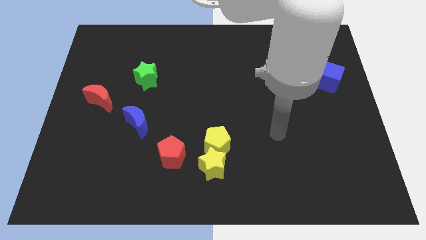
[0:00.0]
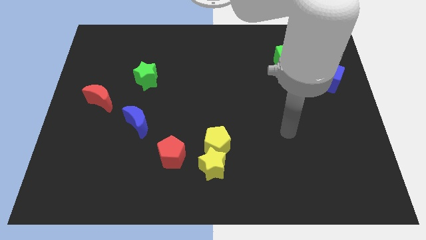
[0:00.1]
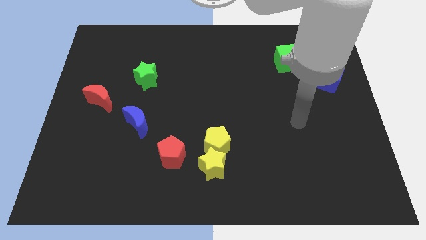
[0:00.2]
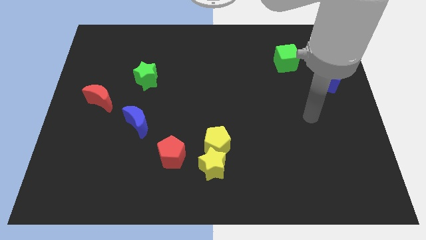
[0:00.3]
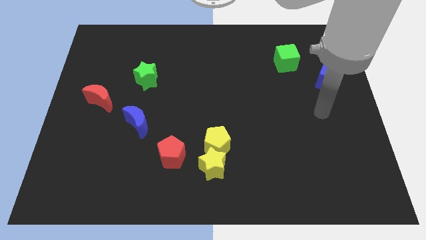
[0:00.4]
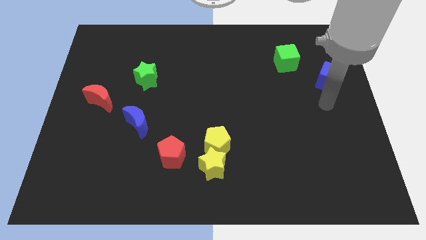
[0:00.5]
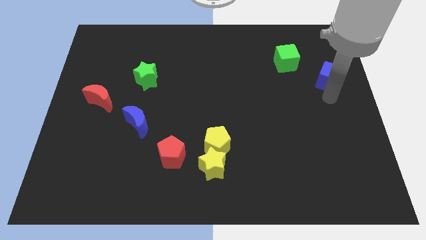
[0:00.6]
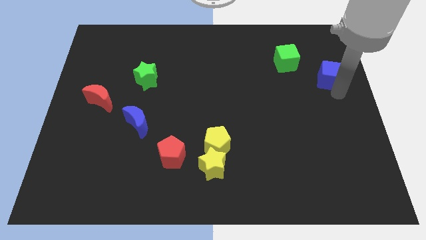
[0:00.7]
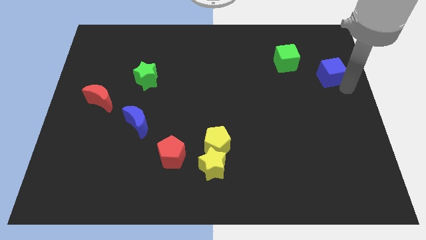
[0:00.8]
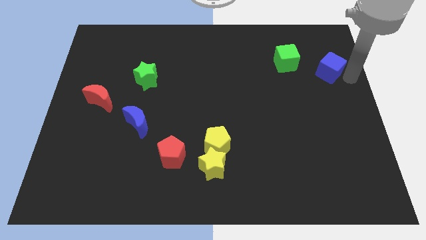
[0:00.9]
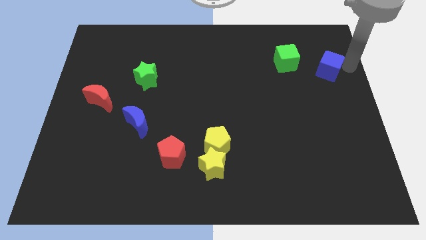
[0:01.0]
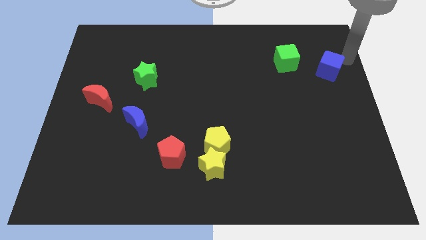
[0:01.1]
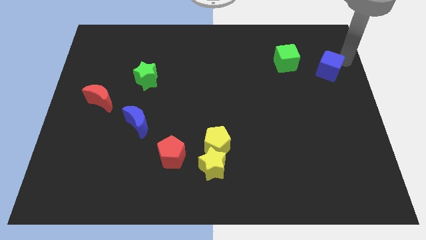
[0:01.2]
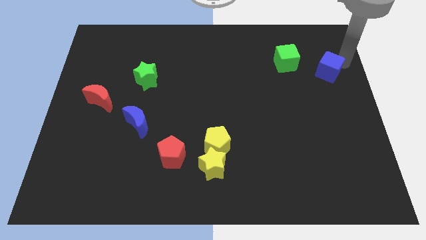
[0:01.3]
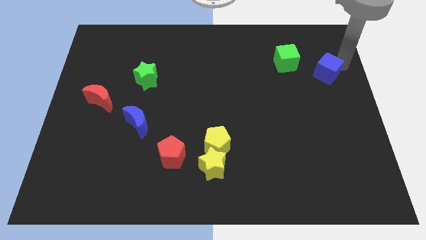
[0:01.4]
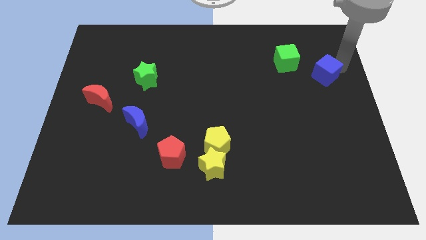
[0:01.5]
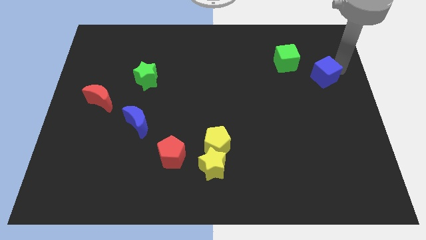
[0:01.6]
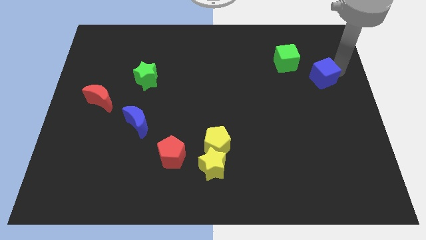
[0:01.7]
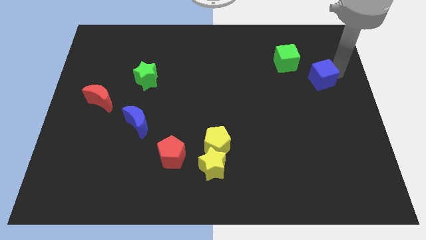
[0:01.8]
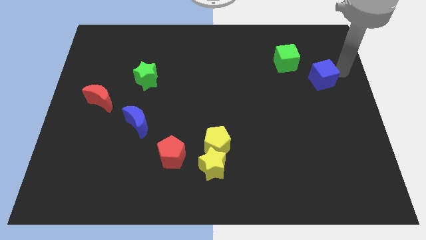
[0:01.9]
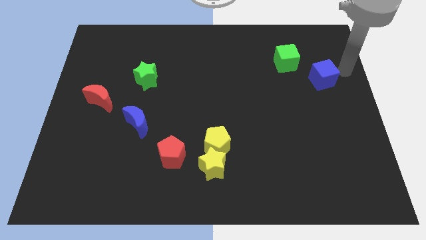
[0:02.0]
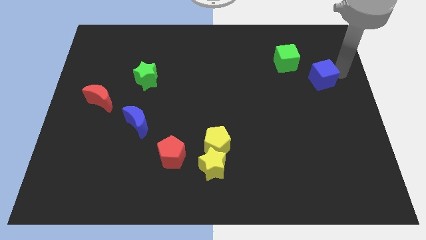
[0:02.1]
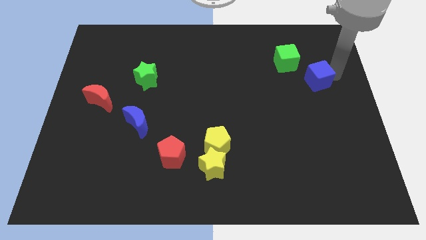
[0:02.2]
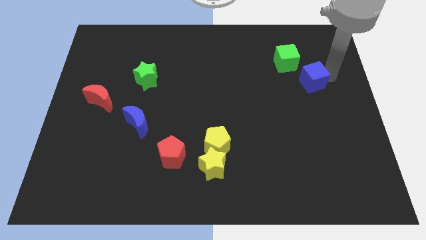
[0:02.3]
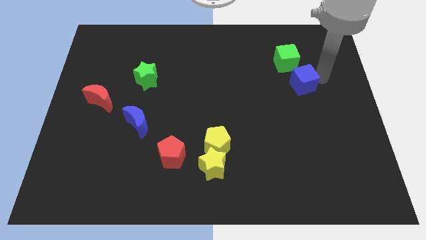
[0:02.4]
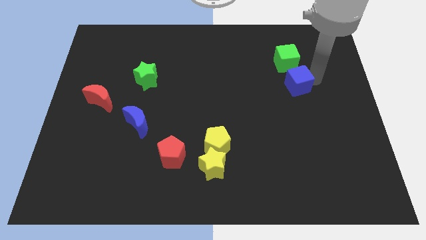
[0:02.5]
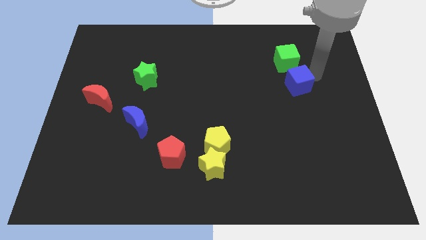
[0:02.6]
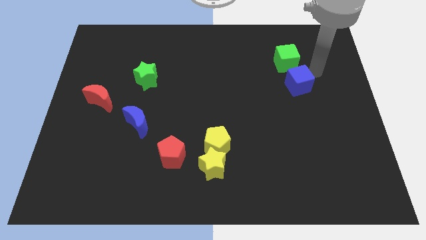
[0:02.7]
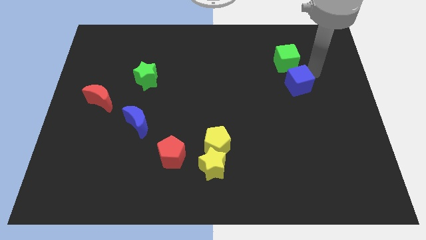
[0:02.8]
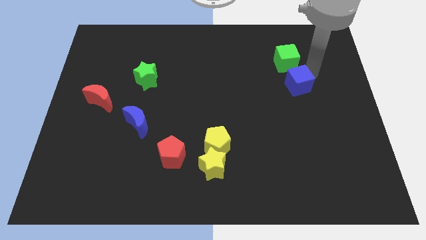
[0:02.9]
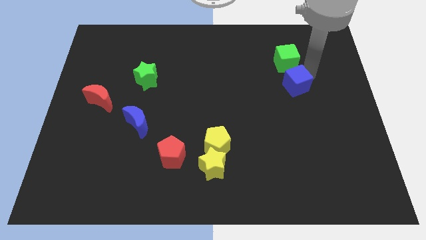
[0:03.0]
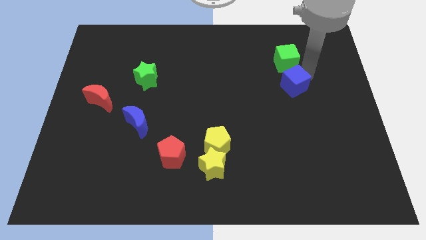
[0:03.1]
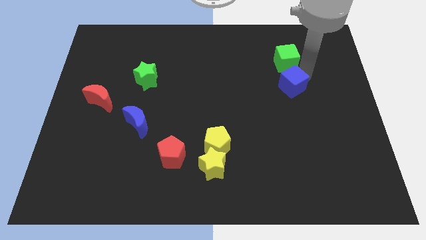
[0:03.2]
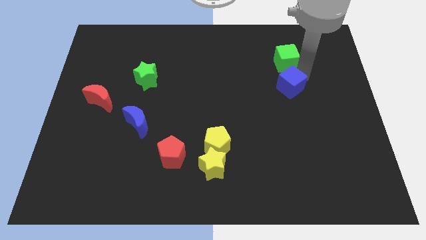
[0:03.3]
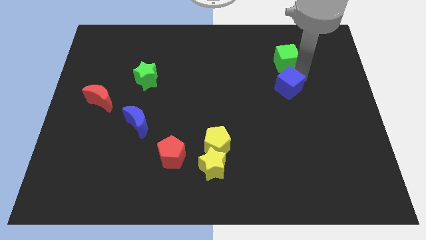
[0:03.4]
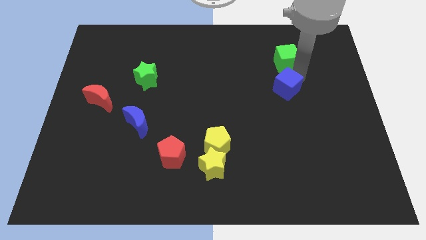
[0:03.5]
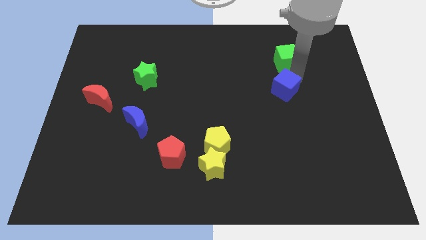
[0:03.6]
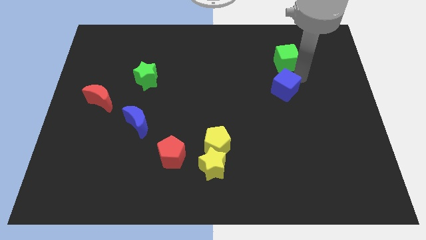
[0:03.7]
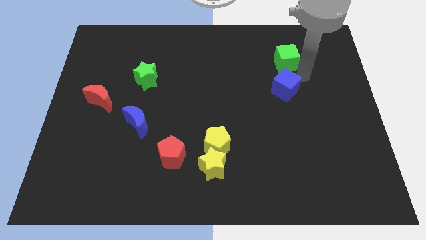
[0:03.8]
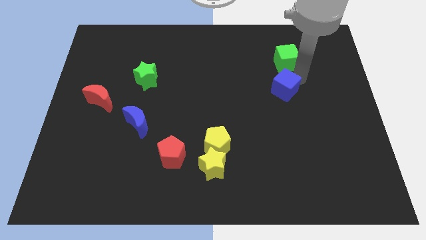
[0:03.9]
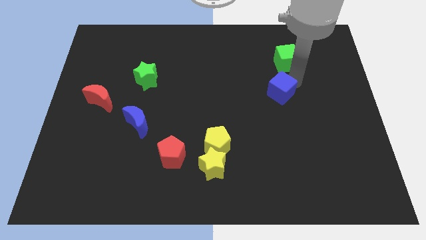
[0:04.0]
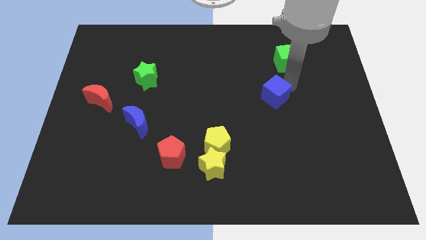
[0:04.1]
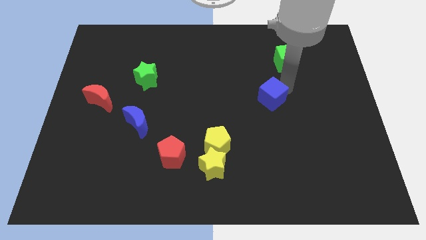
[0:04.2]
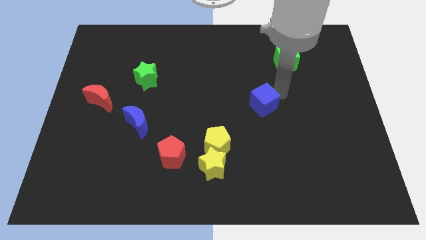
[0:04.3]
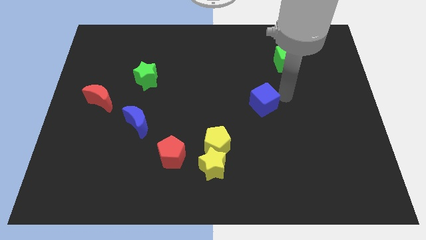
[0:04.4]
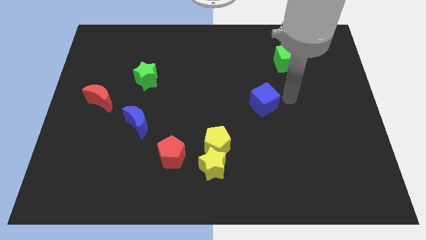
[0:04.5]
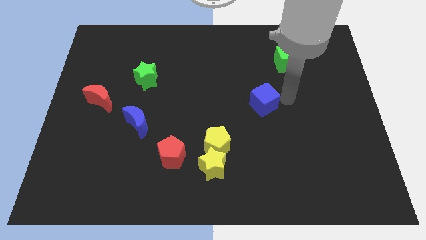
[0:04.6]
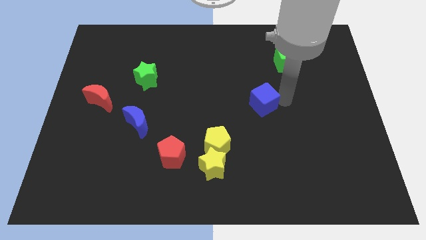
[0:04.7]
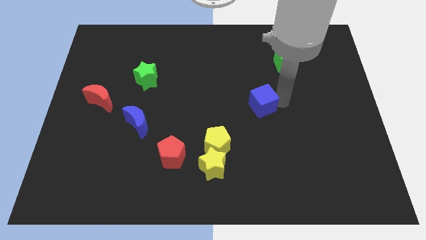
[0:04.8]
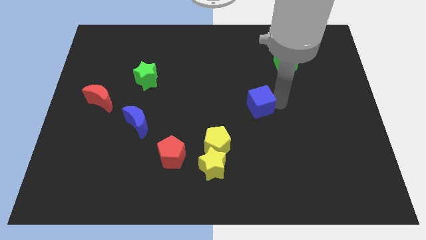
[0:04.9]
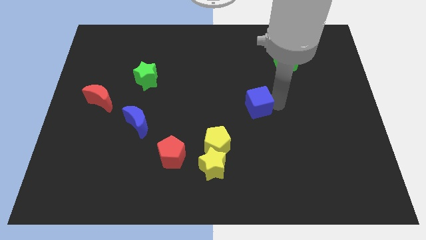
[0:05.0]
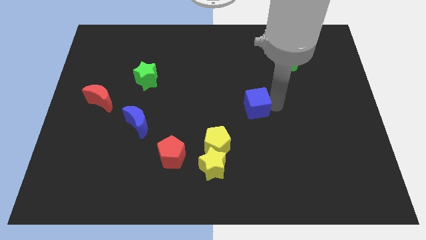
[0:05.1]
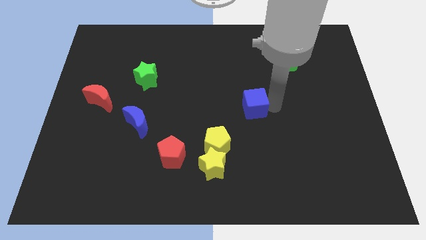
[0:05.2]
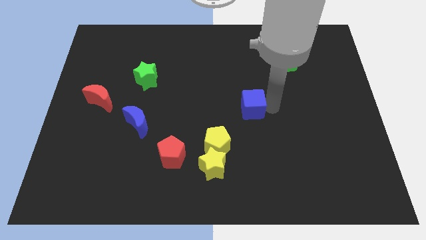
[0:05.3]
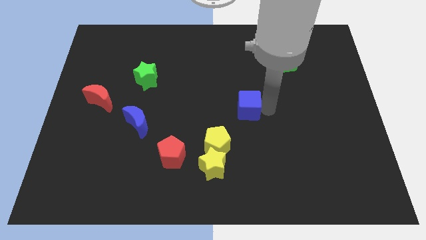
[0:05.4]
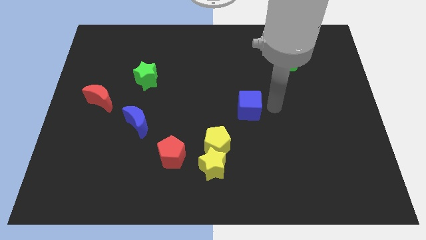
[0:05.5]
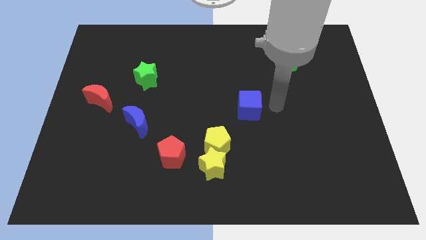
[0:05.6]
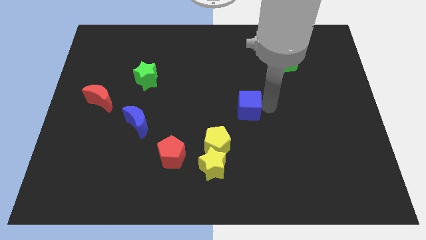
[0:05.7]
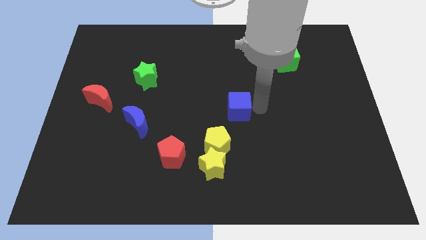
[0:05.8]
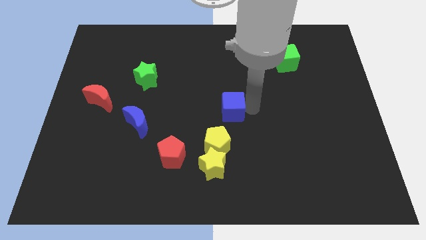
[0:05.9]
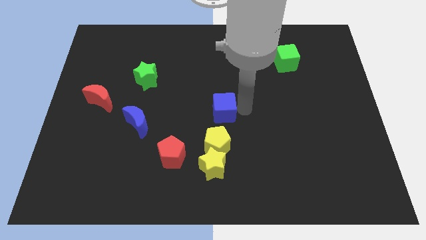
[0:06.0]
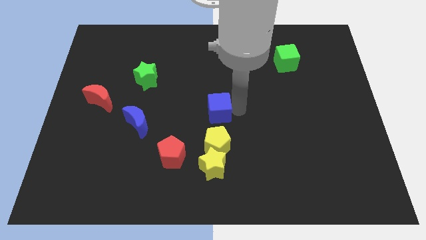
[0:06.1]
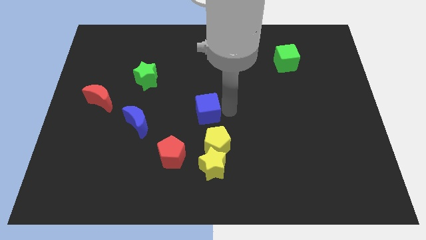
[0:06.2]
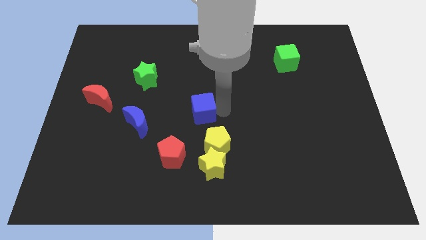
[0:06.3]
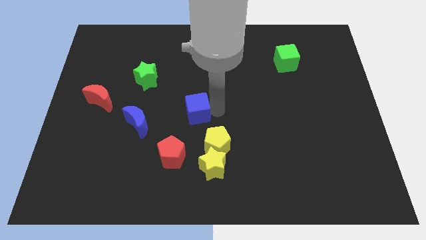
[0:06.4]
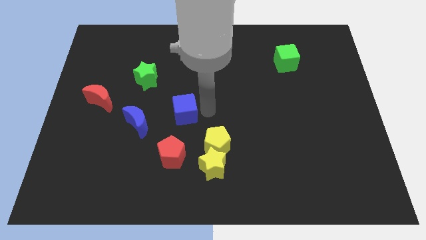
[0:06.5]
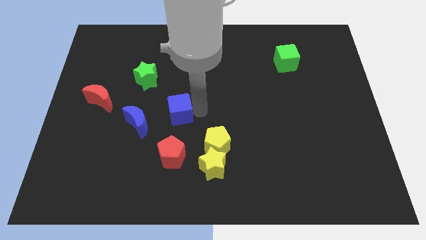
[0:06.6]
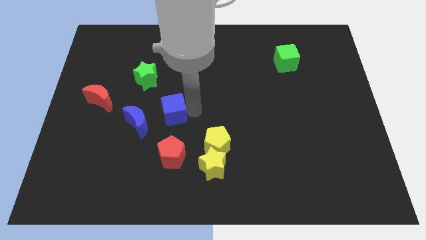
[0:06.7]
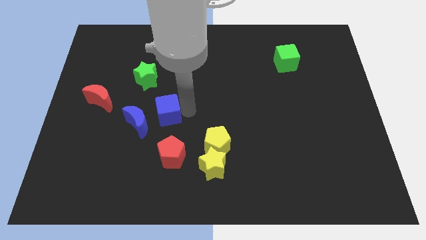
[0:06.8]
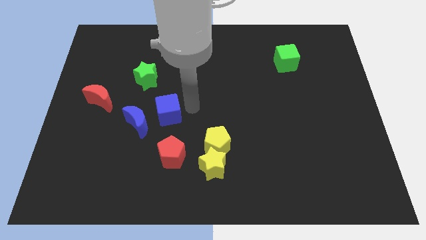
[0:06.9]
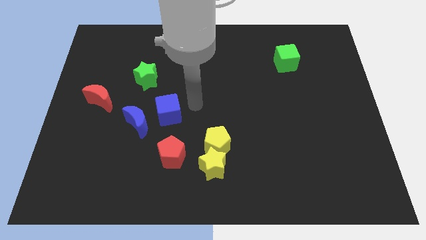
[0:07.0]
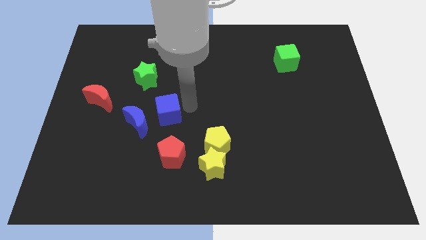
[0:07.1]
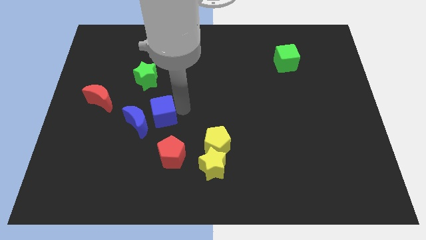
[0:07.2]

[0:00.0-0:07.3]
move the blue cube towards the blue moon
